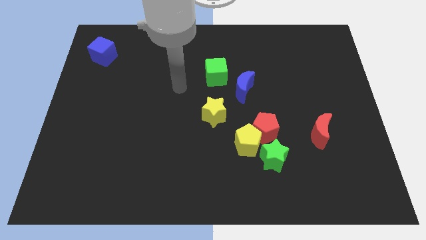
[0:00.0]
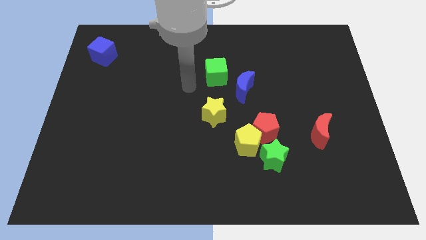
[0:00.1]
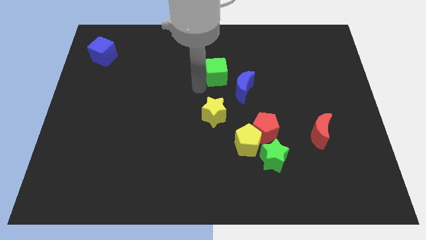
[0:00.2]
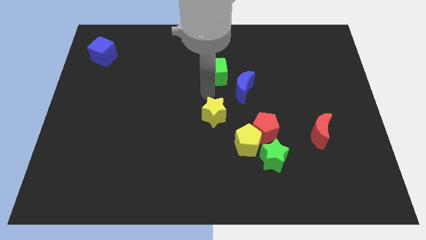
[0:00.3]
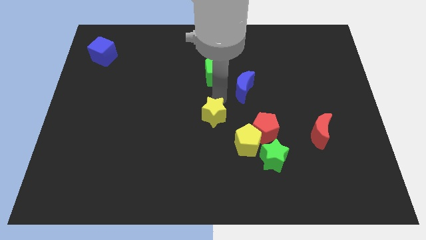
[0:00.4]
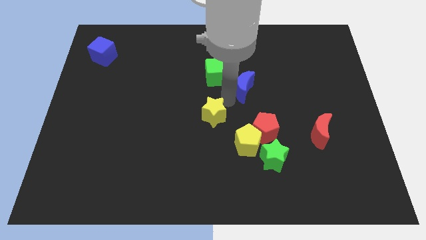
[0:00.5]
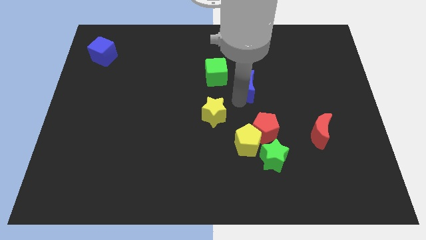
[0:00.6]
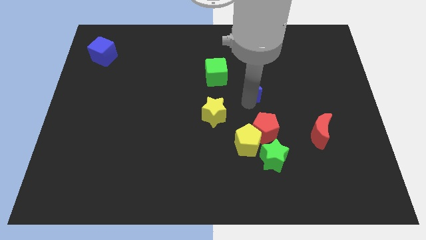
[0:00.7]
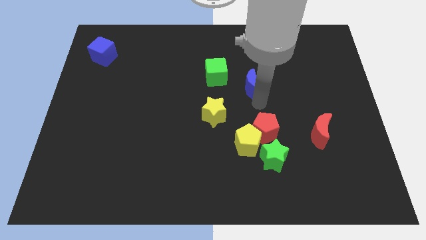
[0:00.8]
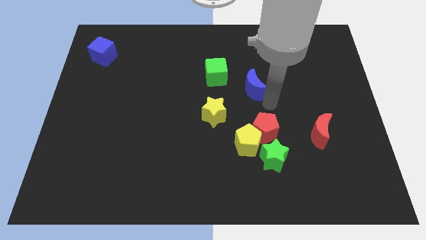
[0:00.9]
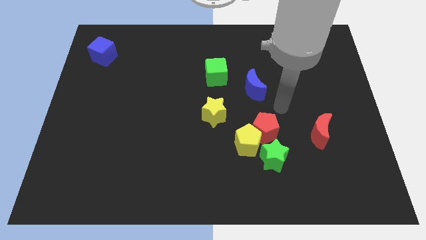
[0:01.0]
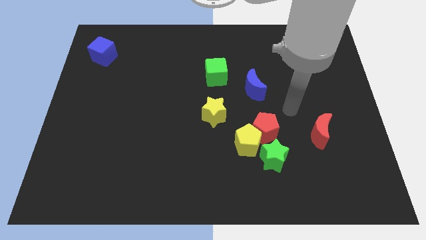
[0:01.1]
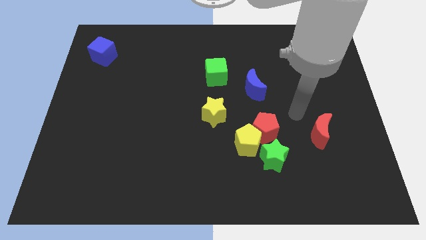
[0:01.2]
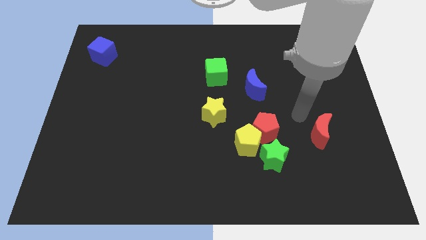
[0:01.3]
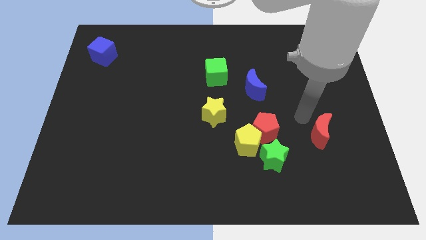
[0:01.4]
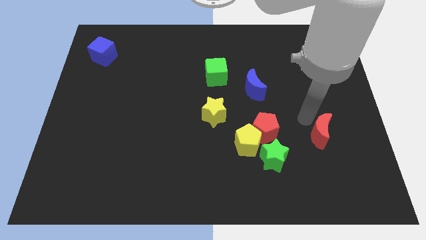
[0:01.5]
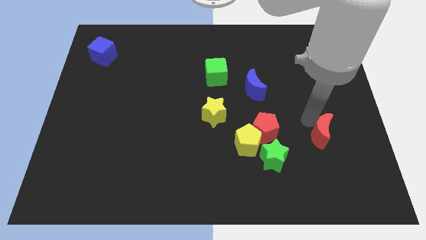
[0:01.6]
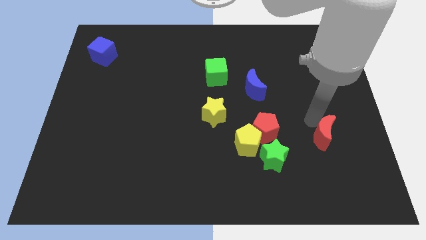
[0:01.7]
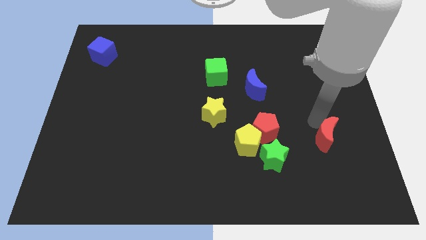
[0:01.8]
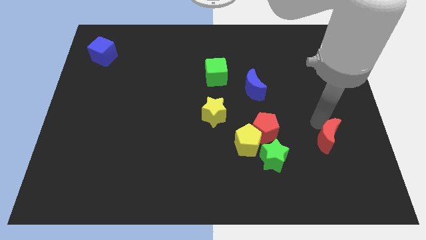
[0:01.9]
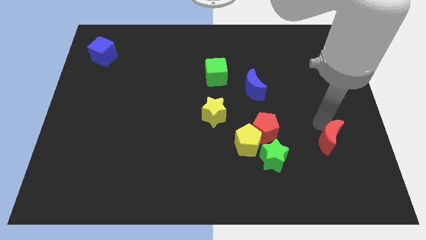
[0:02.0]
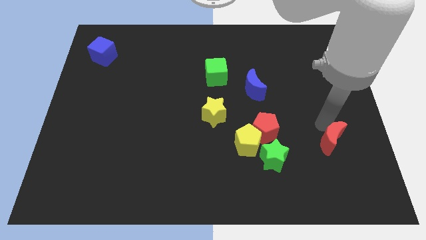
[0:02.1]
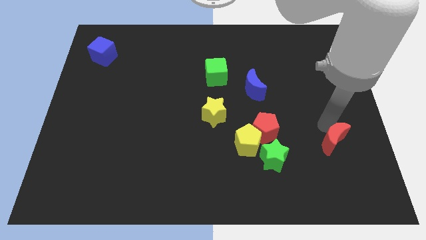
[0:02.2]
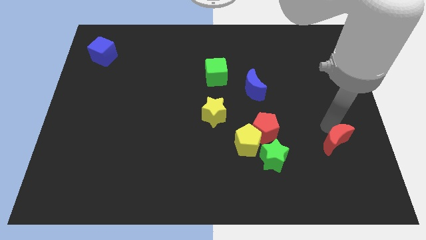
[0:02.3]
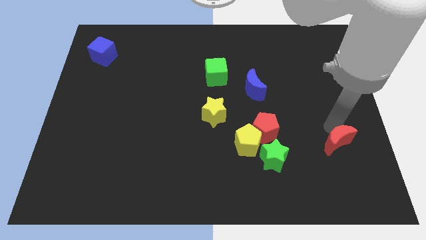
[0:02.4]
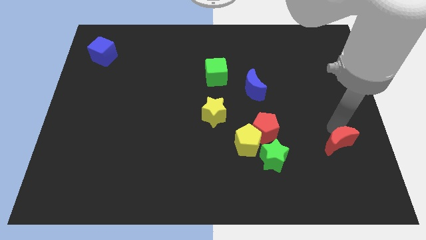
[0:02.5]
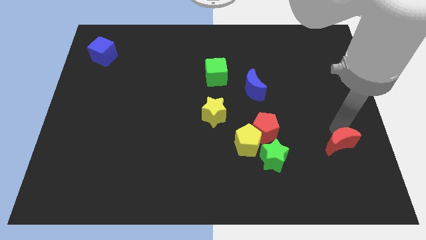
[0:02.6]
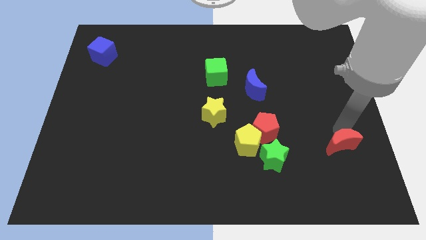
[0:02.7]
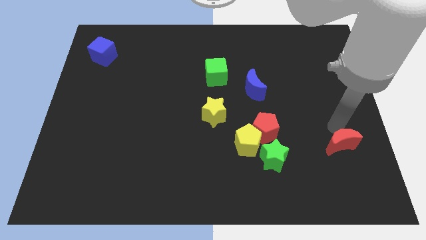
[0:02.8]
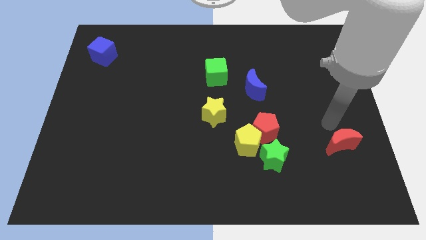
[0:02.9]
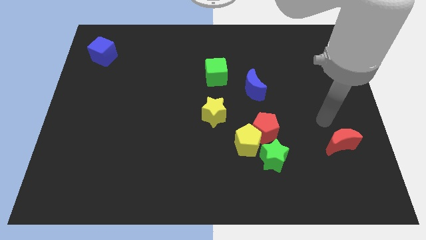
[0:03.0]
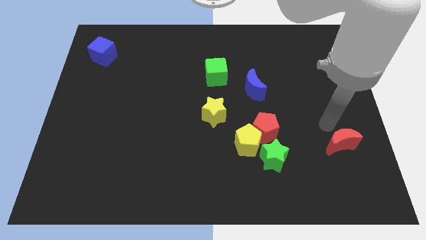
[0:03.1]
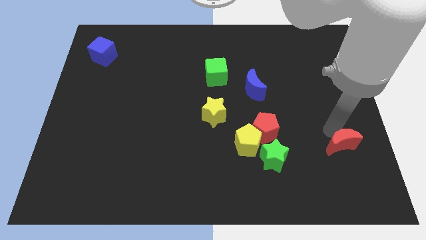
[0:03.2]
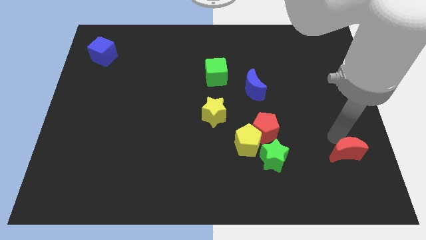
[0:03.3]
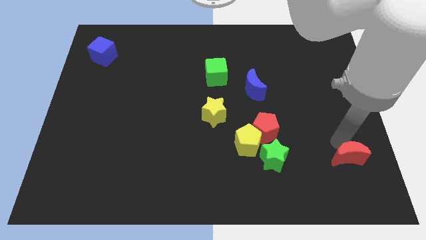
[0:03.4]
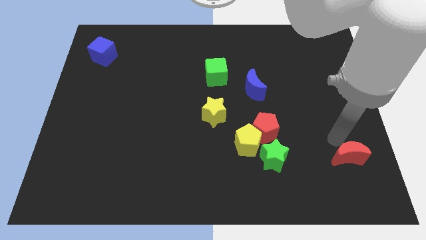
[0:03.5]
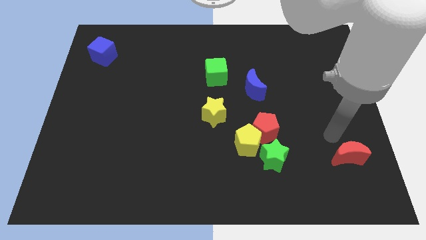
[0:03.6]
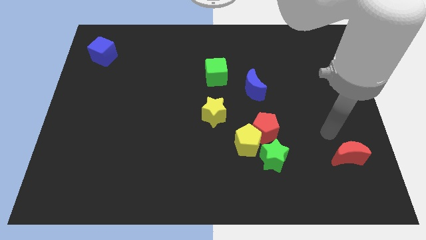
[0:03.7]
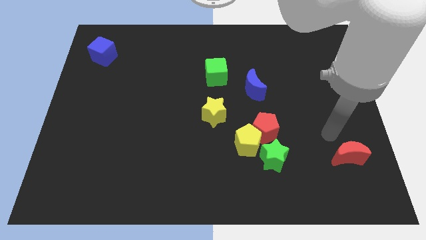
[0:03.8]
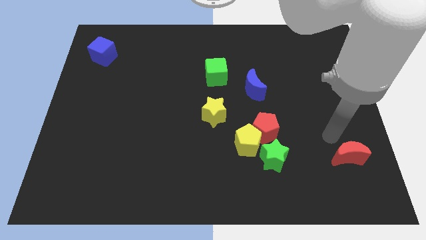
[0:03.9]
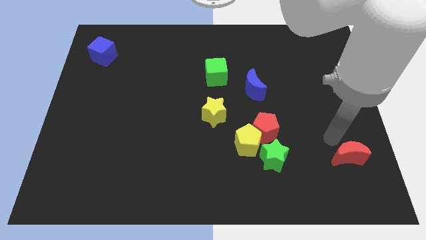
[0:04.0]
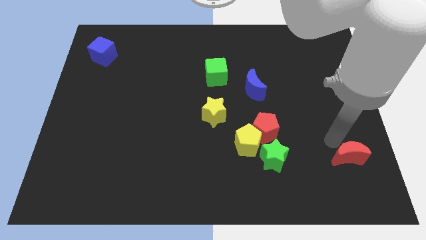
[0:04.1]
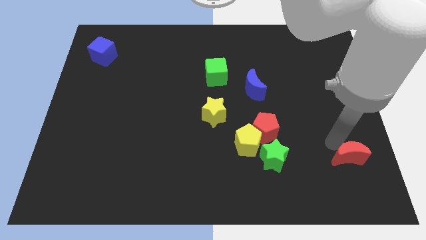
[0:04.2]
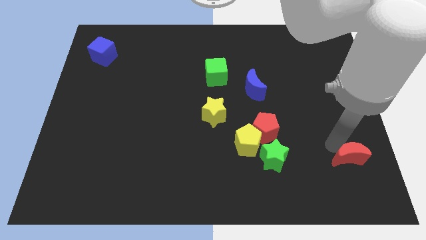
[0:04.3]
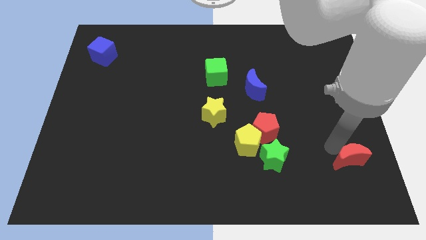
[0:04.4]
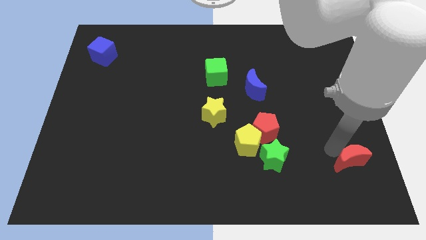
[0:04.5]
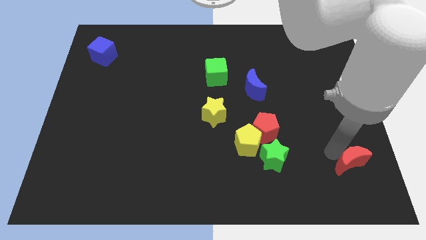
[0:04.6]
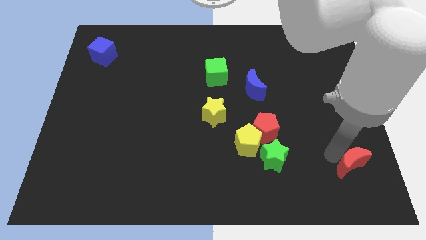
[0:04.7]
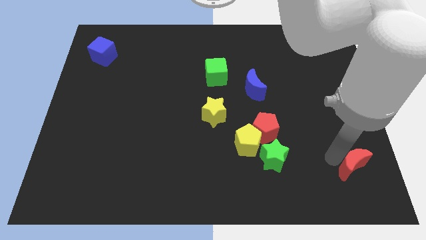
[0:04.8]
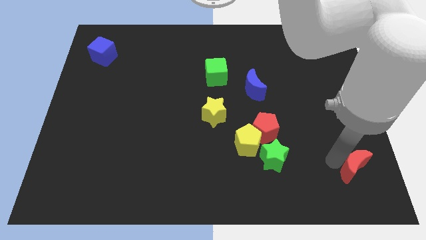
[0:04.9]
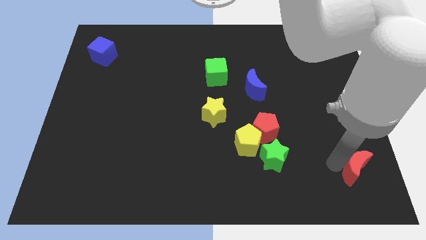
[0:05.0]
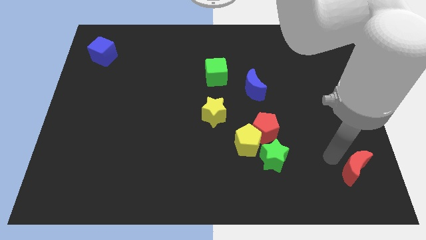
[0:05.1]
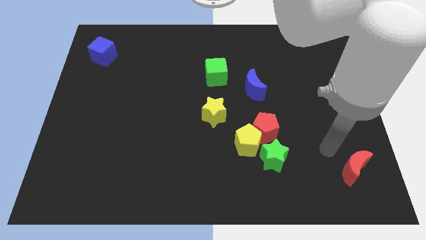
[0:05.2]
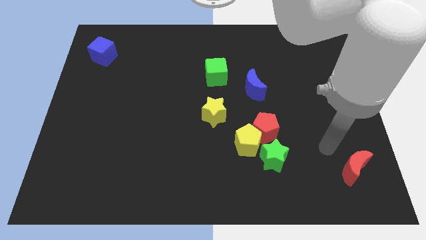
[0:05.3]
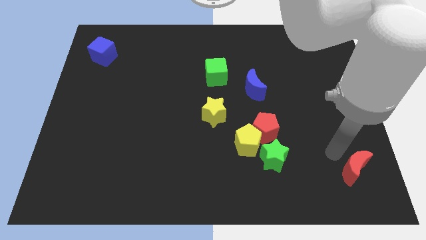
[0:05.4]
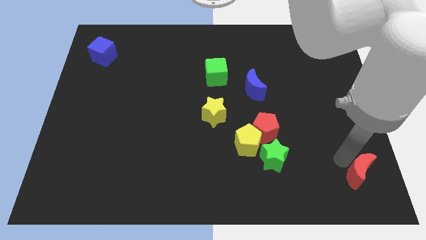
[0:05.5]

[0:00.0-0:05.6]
put the red moon to the bottom right of the board

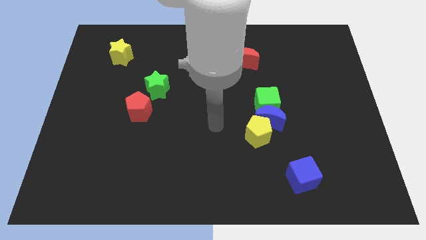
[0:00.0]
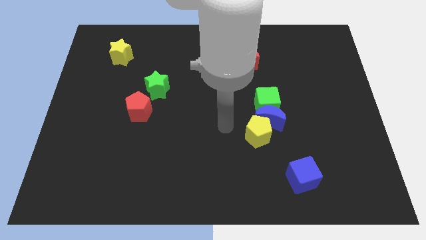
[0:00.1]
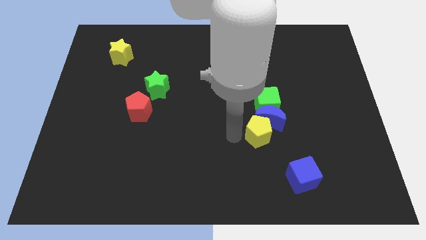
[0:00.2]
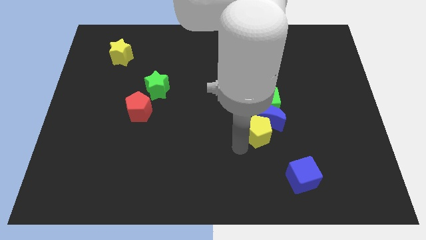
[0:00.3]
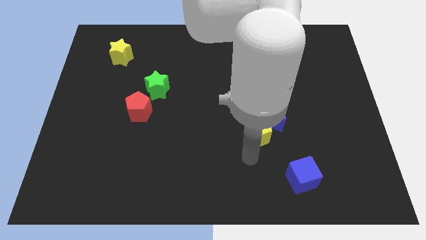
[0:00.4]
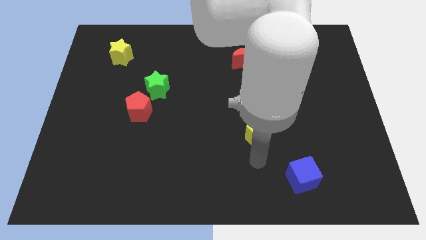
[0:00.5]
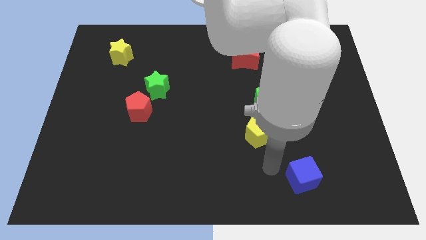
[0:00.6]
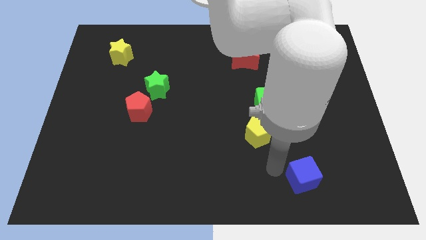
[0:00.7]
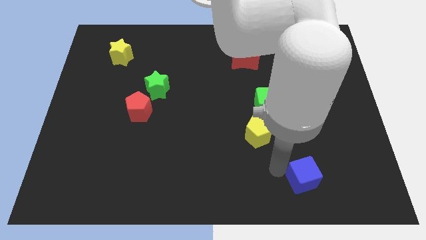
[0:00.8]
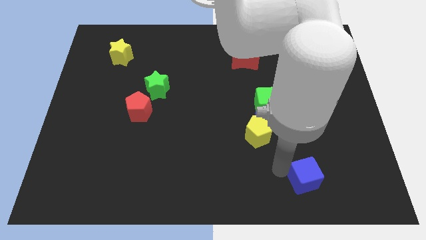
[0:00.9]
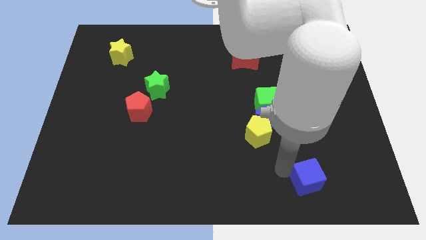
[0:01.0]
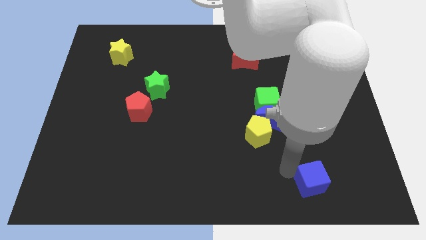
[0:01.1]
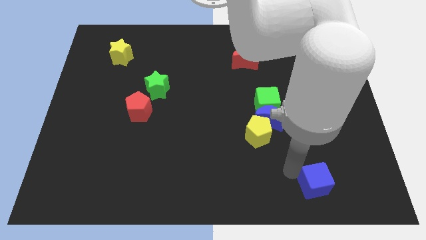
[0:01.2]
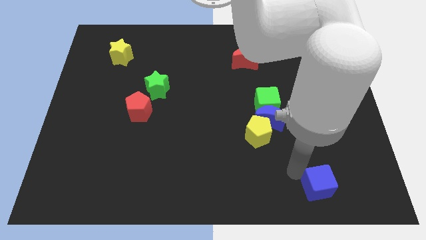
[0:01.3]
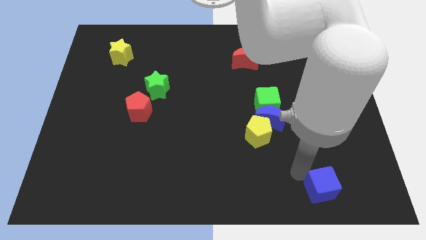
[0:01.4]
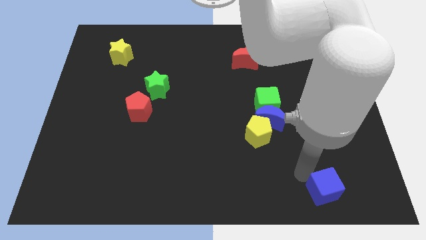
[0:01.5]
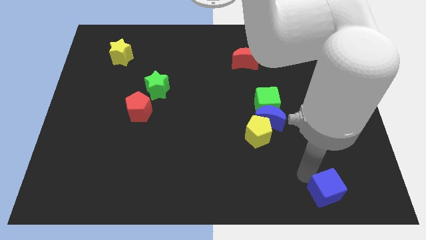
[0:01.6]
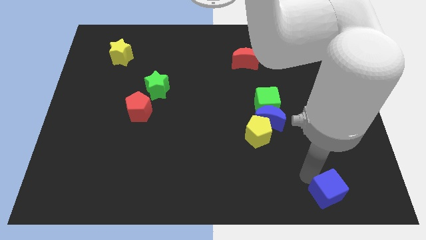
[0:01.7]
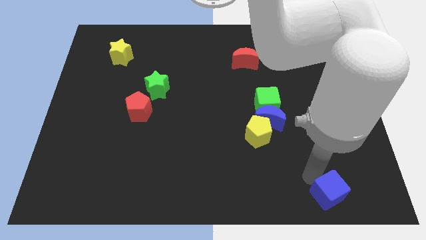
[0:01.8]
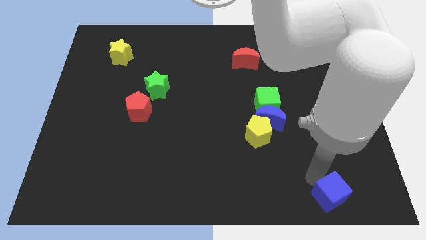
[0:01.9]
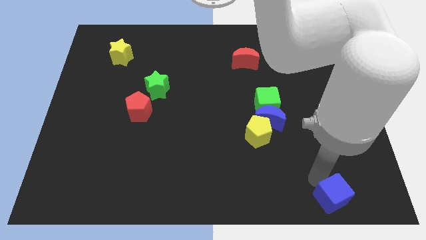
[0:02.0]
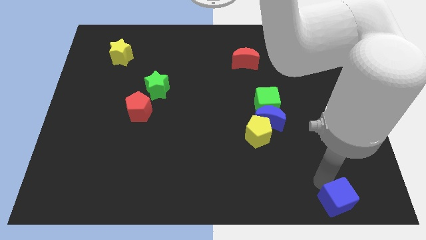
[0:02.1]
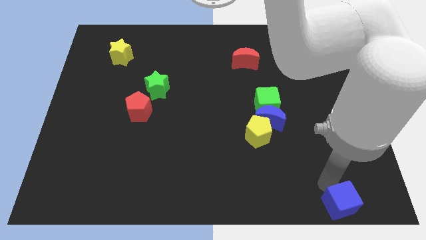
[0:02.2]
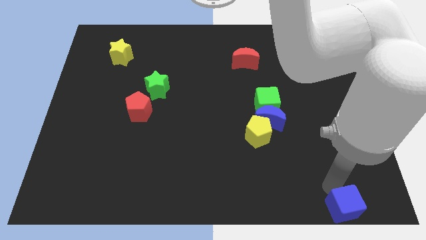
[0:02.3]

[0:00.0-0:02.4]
slide the blue cube to the bottom right

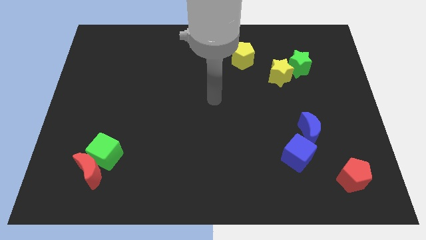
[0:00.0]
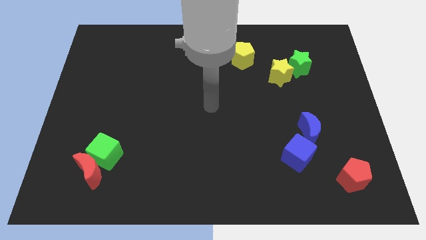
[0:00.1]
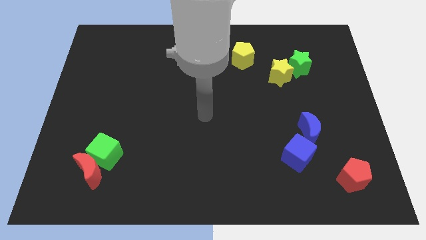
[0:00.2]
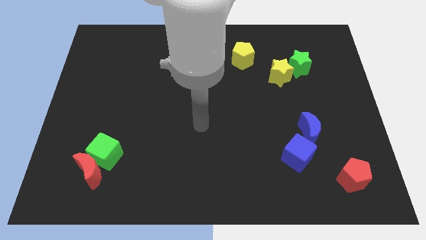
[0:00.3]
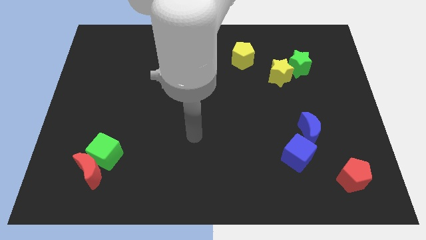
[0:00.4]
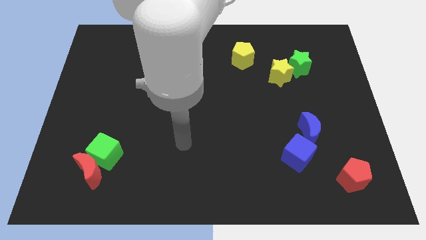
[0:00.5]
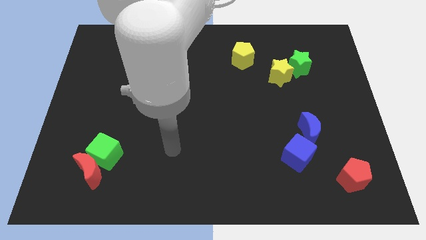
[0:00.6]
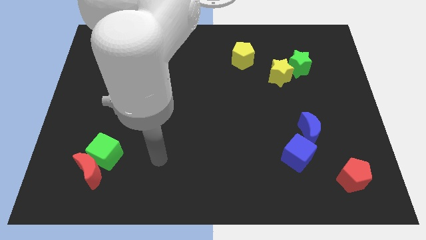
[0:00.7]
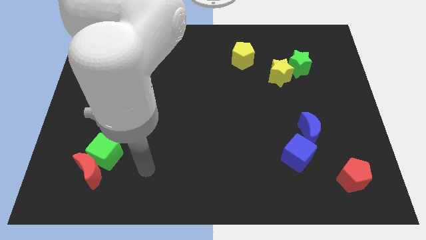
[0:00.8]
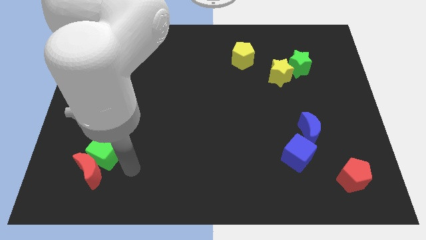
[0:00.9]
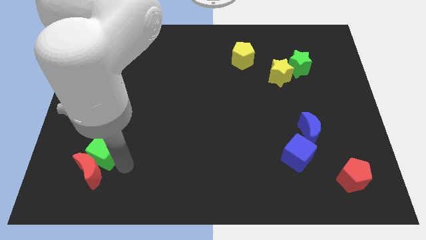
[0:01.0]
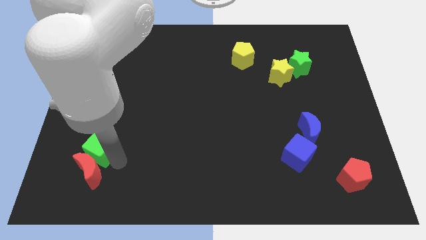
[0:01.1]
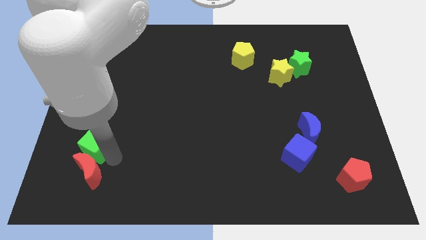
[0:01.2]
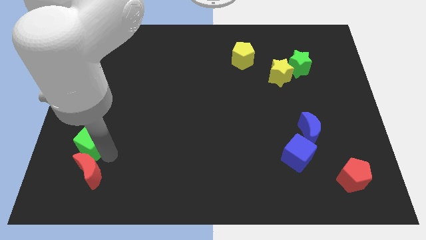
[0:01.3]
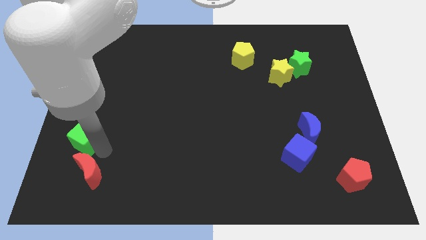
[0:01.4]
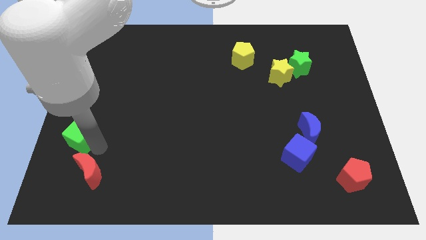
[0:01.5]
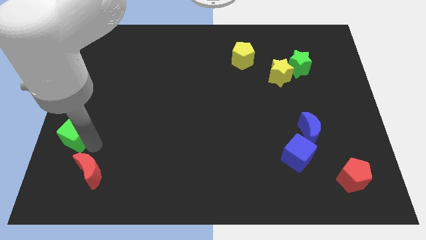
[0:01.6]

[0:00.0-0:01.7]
slide the green cube to the center left
